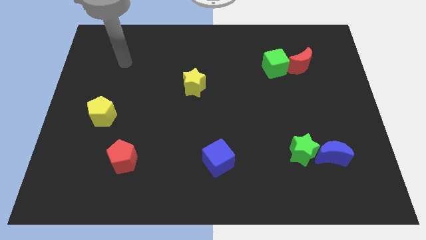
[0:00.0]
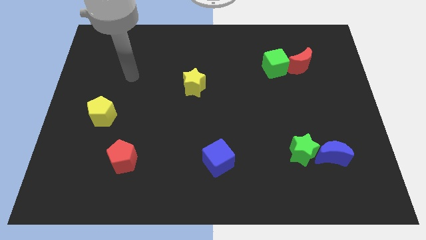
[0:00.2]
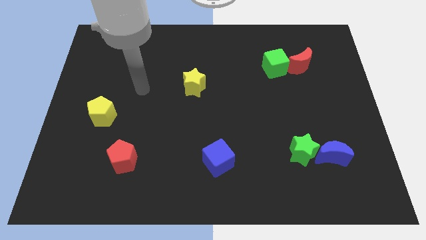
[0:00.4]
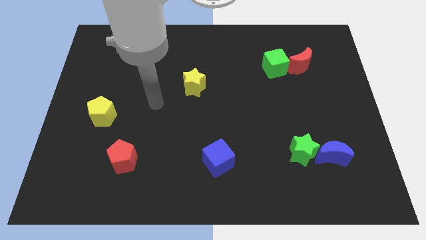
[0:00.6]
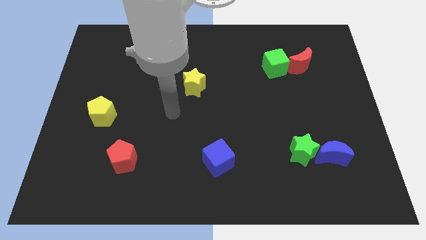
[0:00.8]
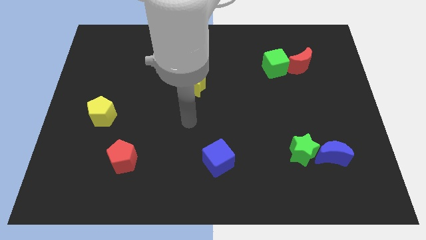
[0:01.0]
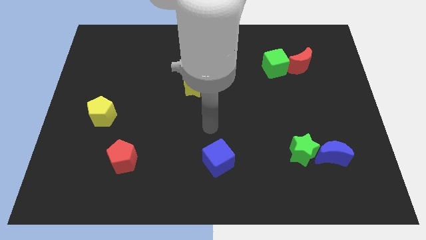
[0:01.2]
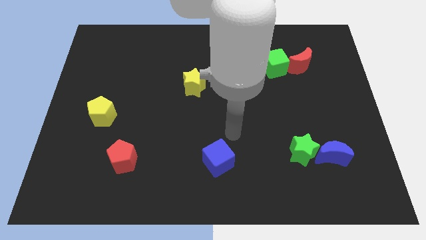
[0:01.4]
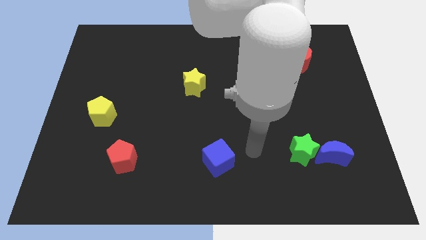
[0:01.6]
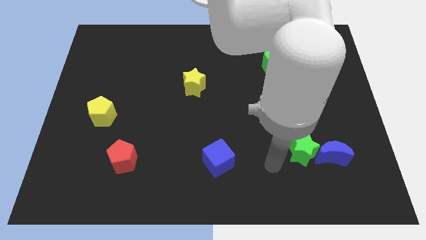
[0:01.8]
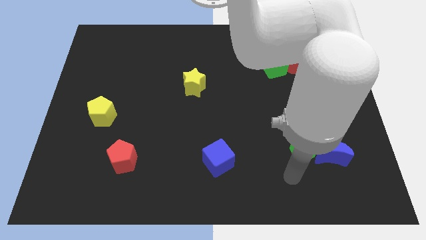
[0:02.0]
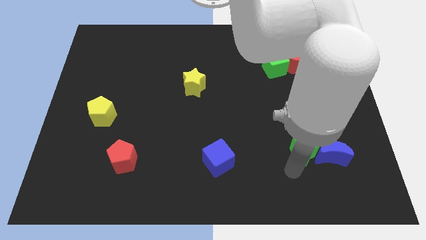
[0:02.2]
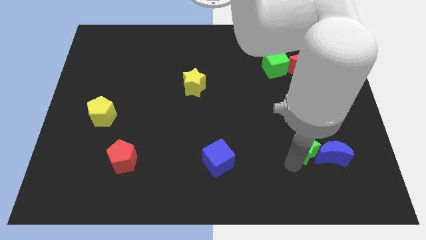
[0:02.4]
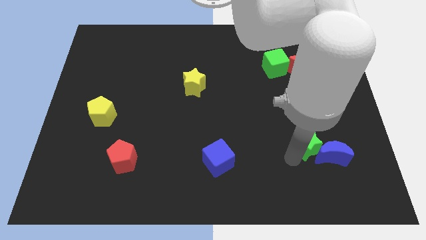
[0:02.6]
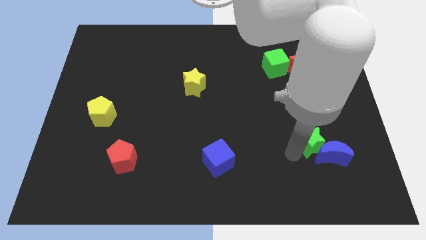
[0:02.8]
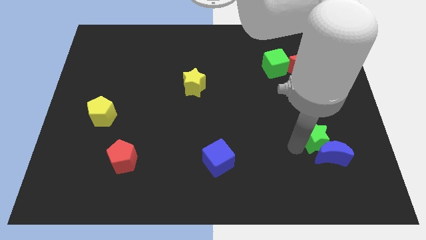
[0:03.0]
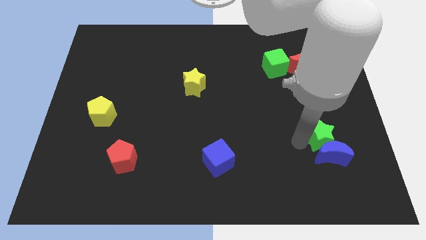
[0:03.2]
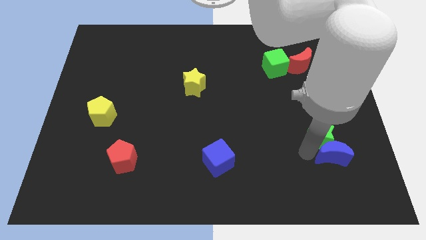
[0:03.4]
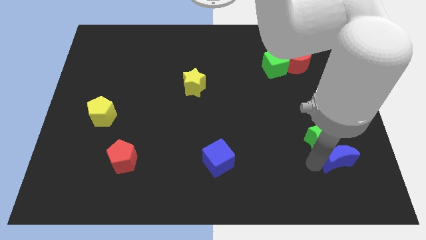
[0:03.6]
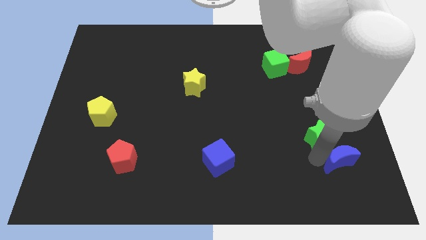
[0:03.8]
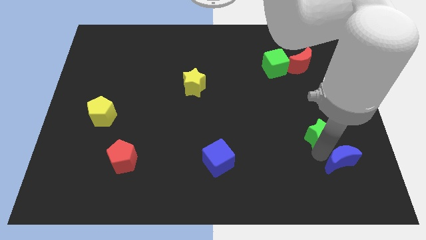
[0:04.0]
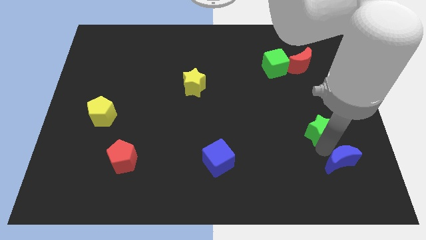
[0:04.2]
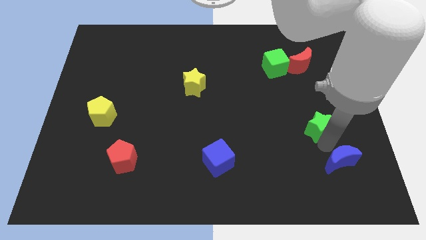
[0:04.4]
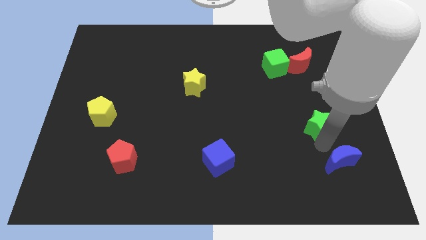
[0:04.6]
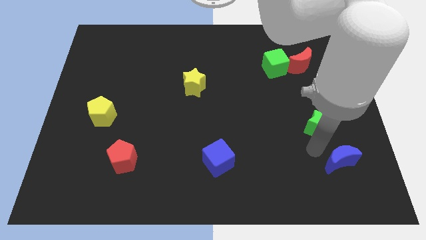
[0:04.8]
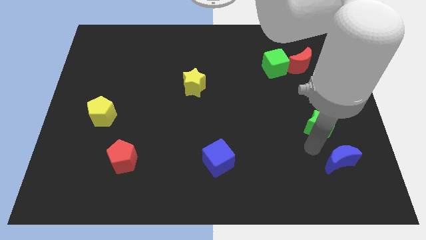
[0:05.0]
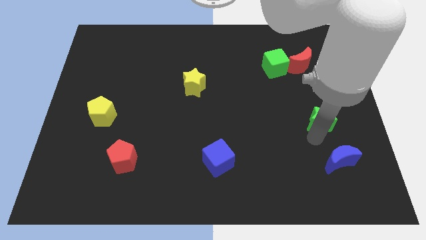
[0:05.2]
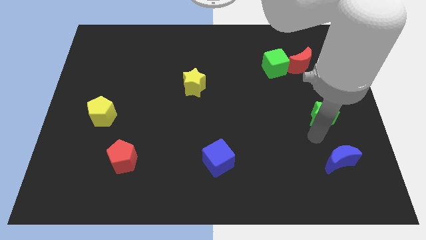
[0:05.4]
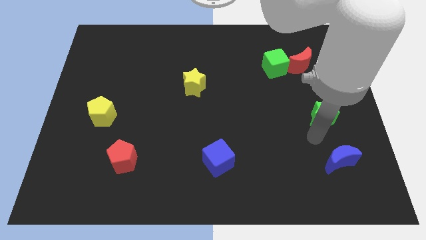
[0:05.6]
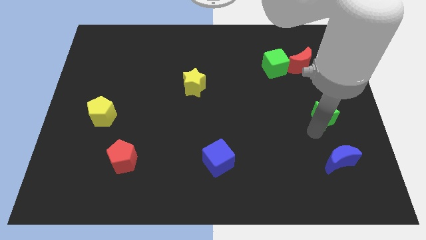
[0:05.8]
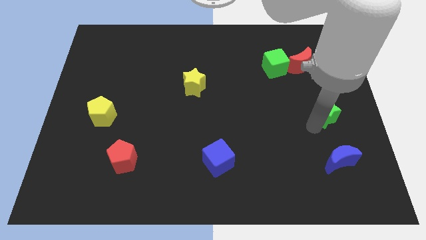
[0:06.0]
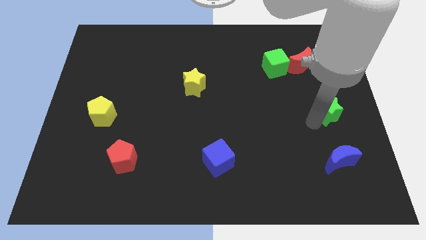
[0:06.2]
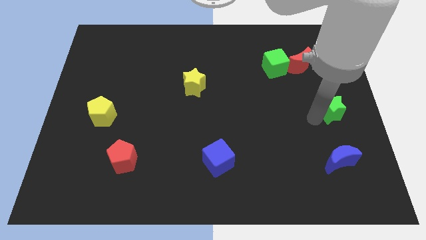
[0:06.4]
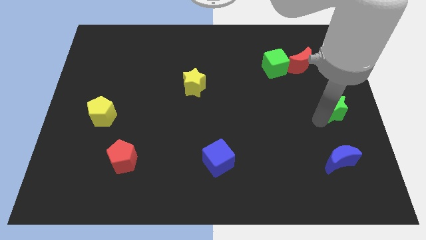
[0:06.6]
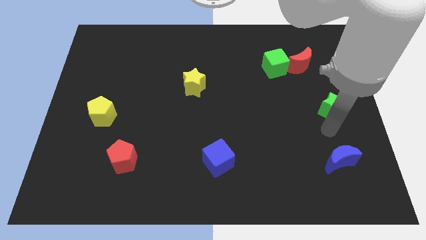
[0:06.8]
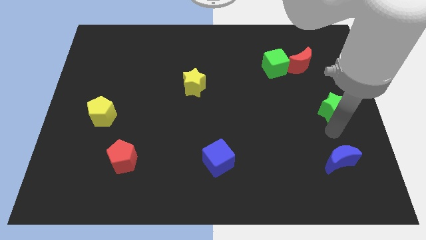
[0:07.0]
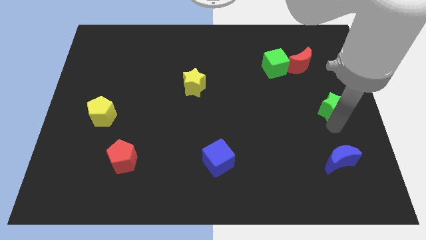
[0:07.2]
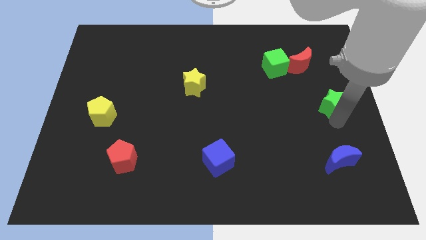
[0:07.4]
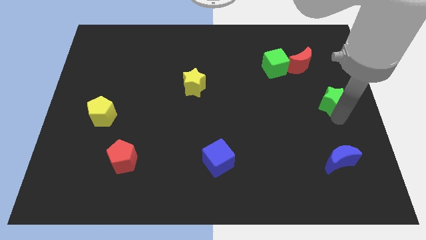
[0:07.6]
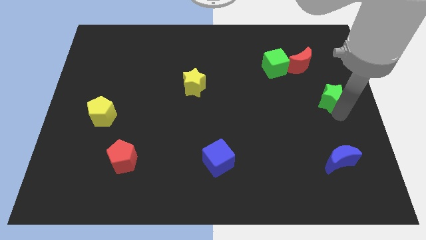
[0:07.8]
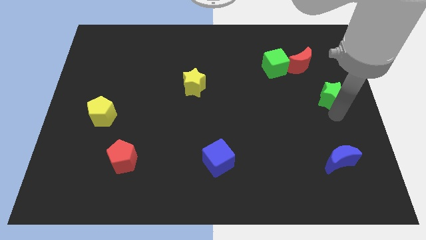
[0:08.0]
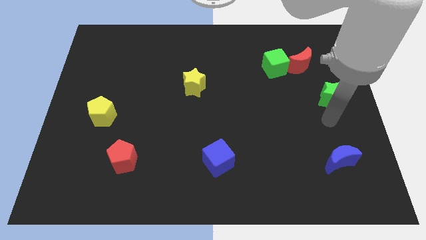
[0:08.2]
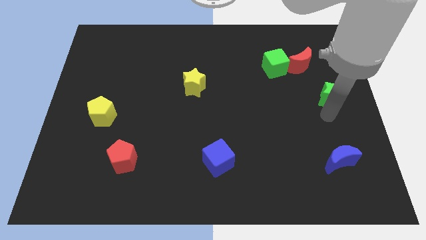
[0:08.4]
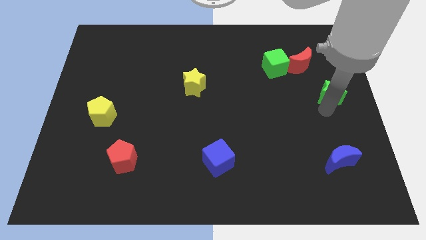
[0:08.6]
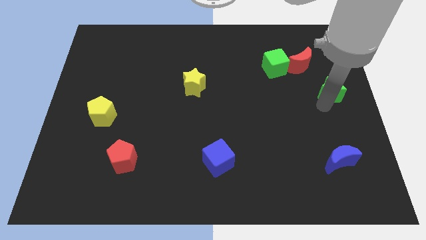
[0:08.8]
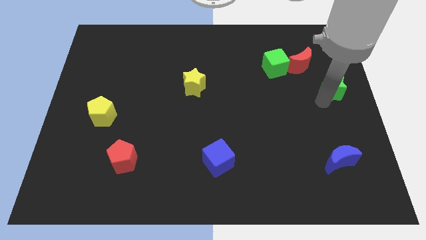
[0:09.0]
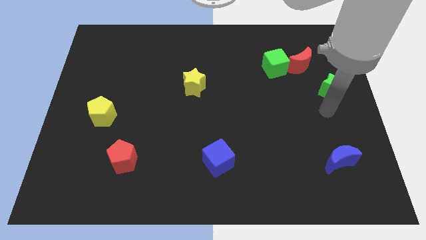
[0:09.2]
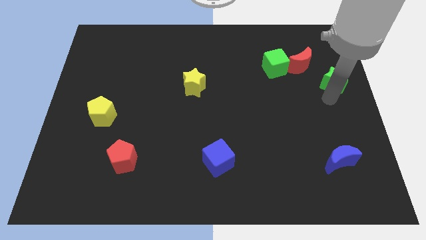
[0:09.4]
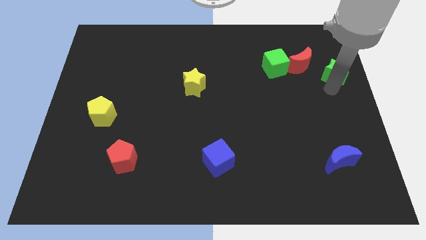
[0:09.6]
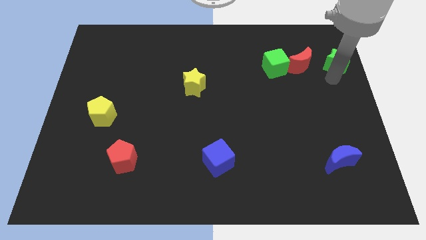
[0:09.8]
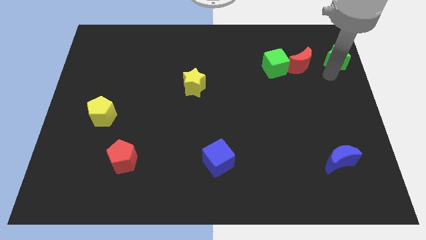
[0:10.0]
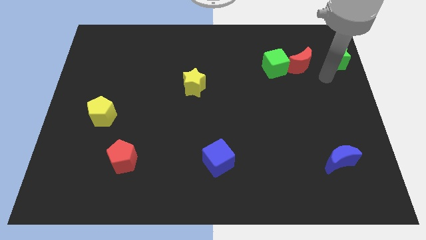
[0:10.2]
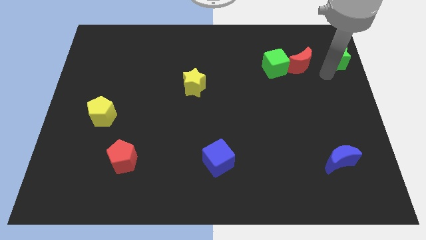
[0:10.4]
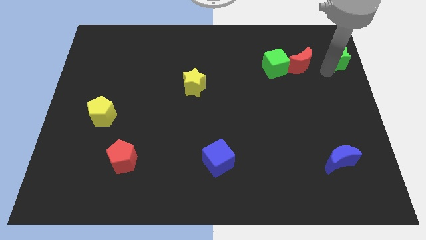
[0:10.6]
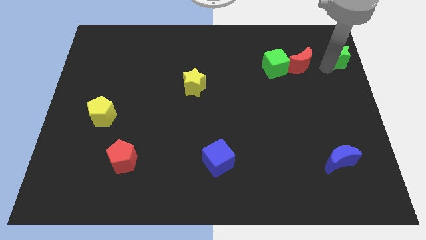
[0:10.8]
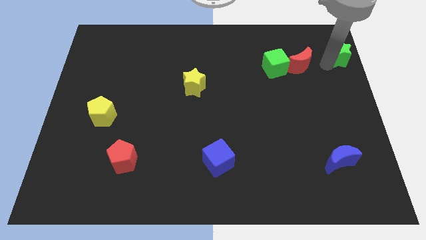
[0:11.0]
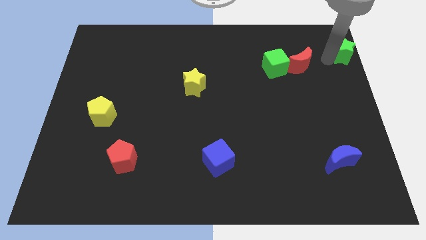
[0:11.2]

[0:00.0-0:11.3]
slide the green star to the top right corner
